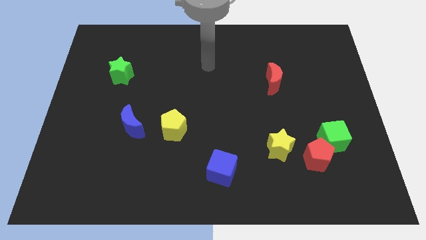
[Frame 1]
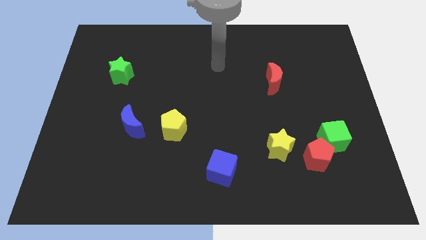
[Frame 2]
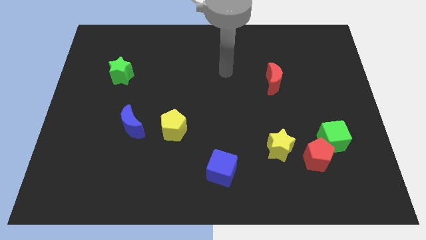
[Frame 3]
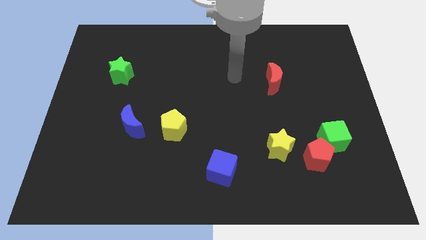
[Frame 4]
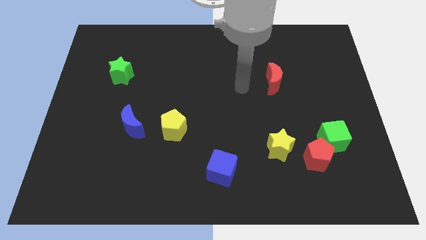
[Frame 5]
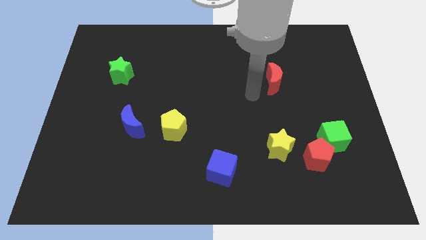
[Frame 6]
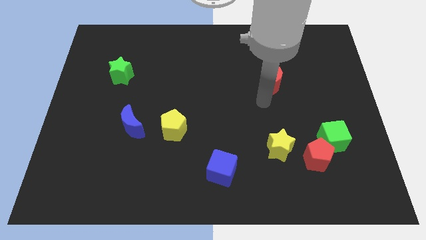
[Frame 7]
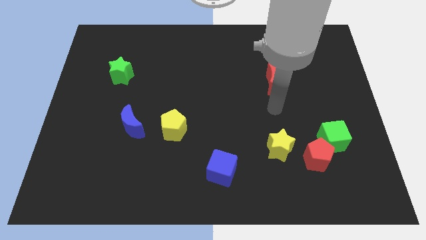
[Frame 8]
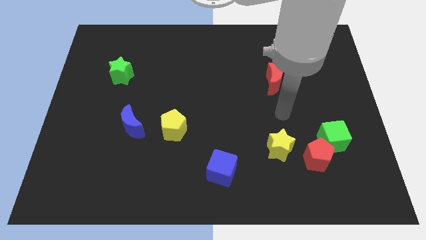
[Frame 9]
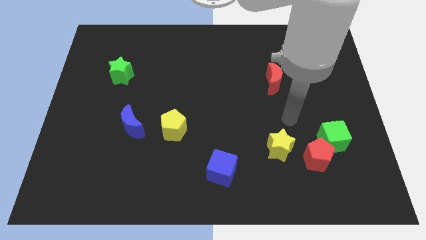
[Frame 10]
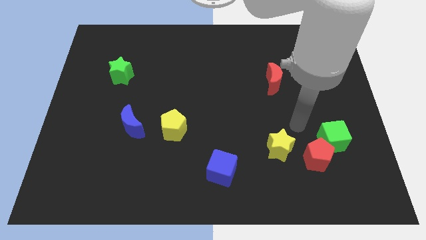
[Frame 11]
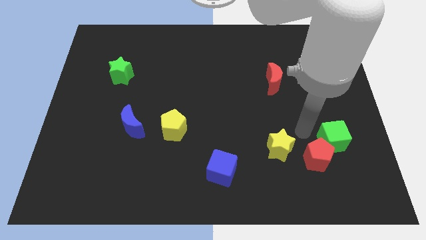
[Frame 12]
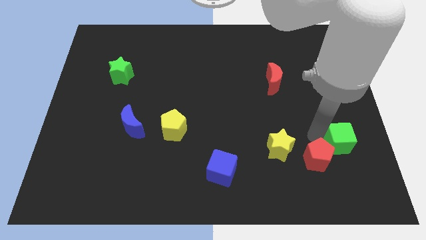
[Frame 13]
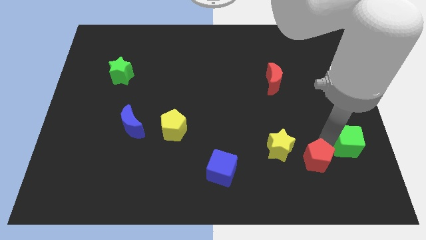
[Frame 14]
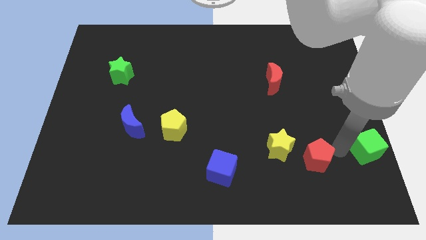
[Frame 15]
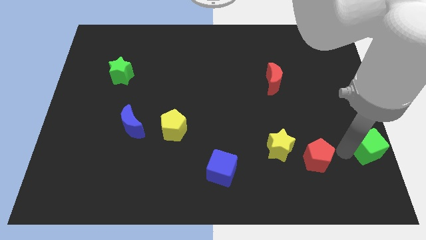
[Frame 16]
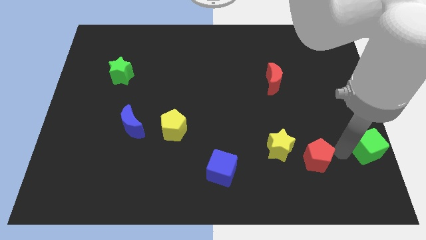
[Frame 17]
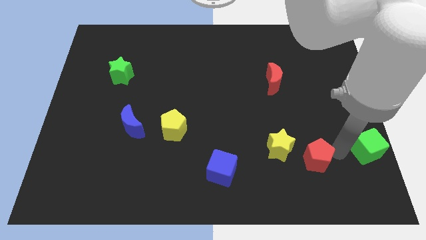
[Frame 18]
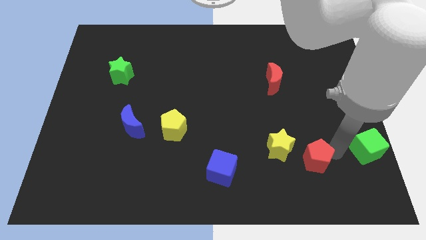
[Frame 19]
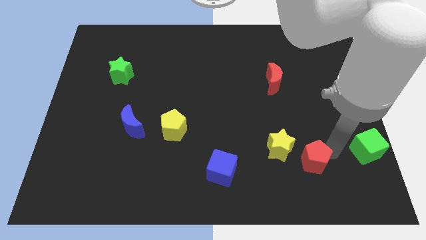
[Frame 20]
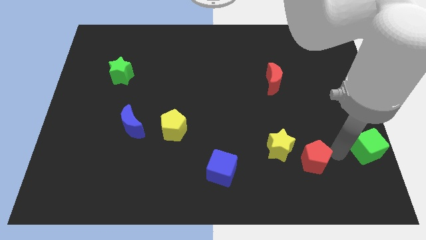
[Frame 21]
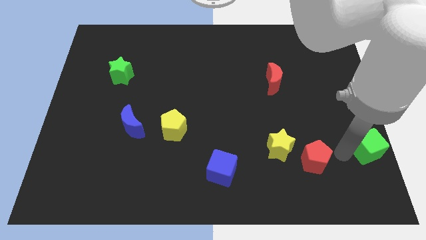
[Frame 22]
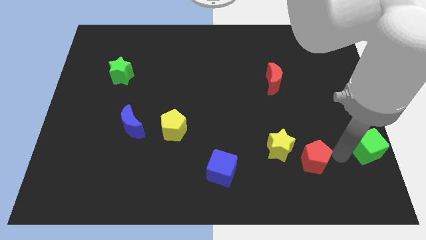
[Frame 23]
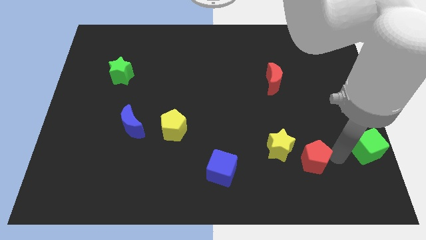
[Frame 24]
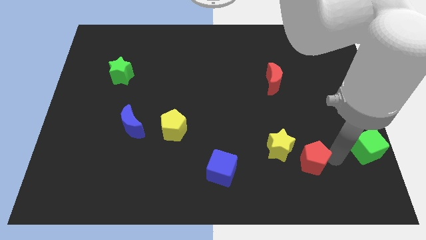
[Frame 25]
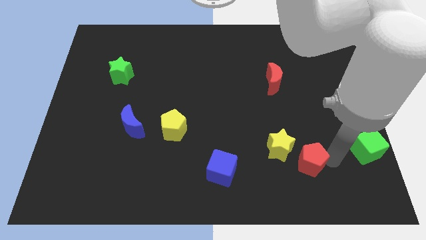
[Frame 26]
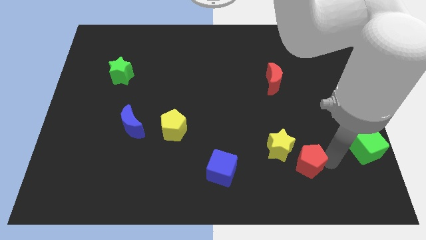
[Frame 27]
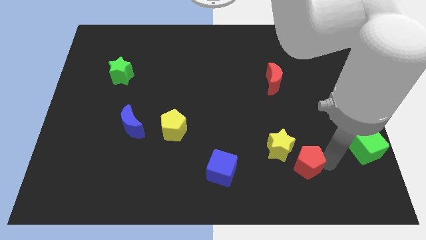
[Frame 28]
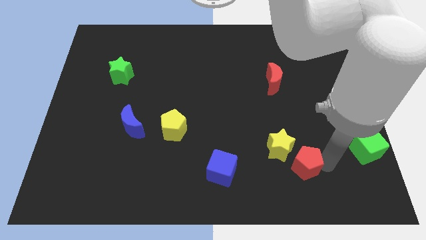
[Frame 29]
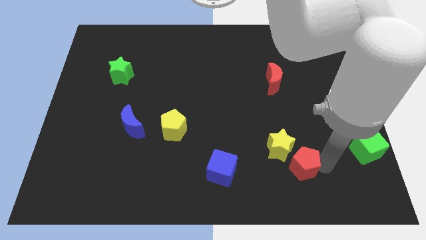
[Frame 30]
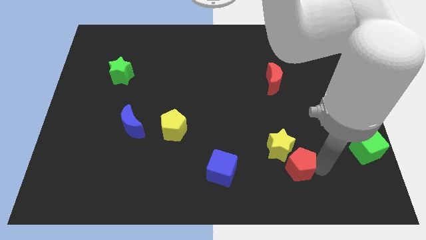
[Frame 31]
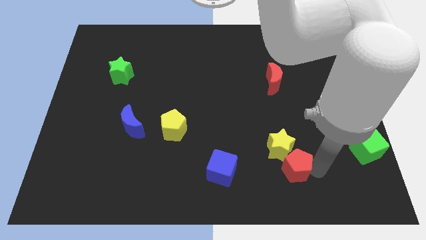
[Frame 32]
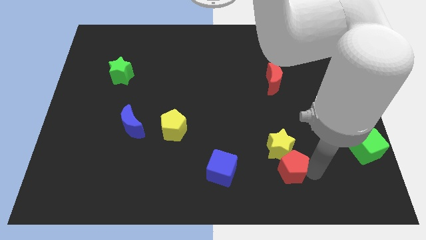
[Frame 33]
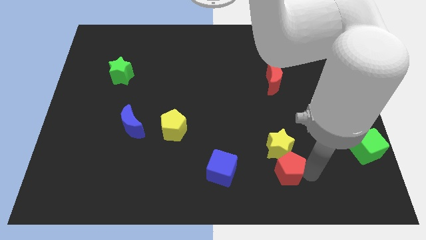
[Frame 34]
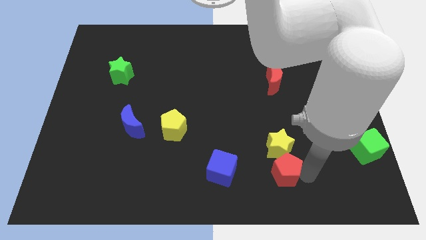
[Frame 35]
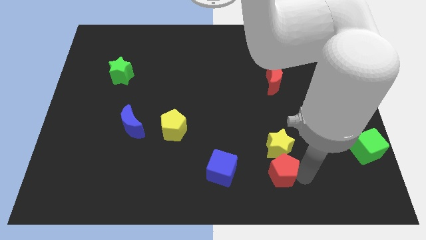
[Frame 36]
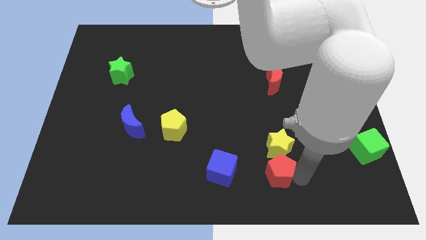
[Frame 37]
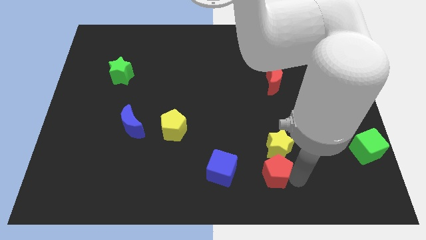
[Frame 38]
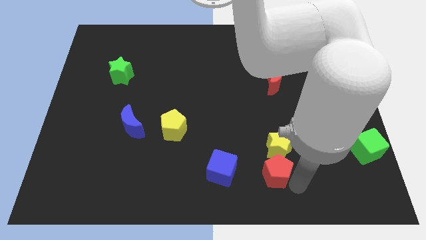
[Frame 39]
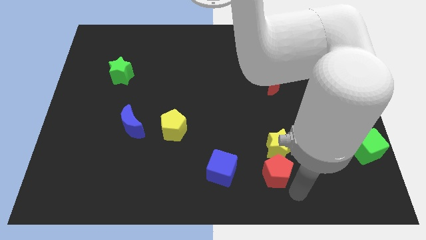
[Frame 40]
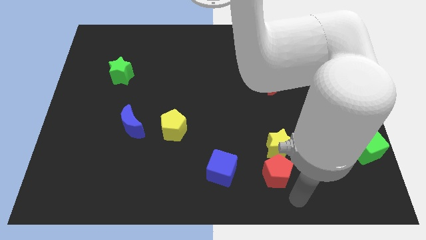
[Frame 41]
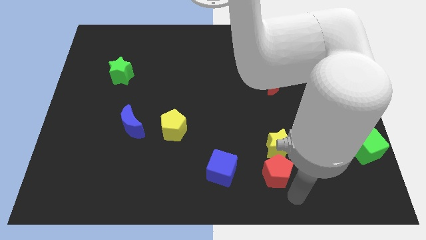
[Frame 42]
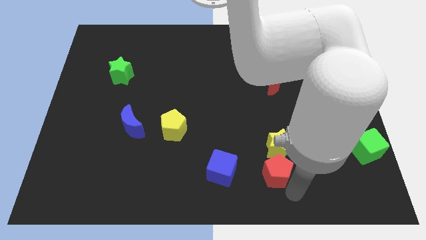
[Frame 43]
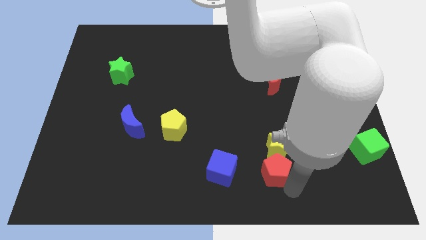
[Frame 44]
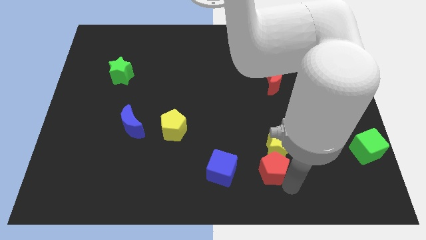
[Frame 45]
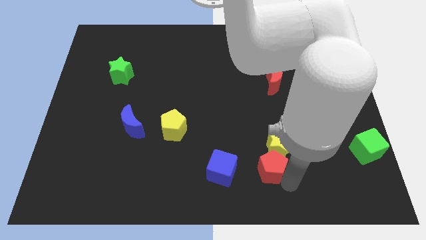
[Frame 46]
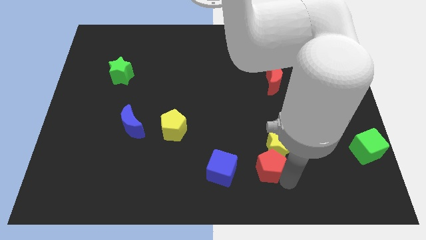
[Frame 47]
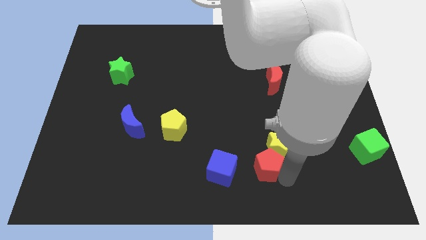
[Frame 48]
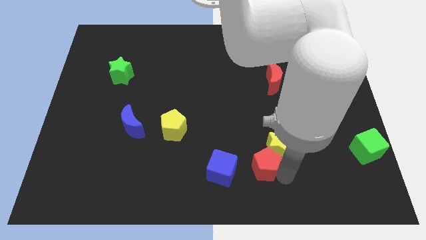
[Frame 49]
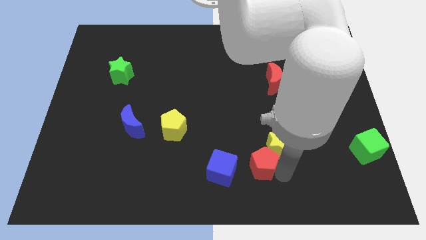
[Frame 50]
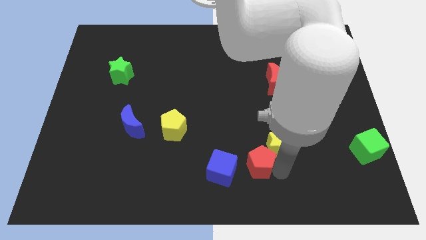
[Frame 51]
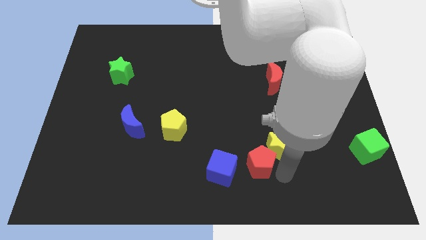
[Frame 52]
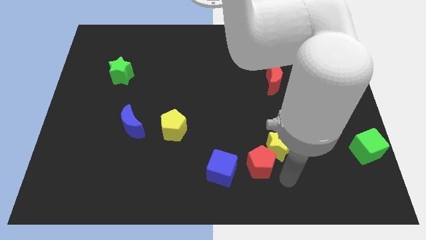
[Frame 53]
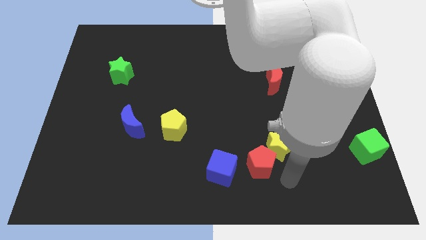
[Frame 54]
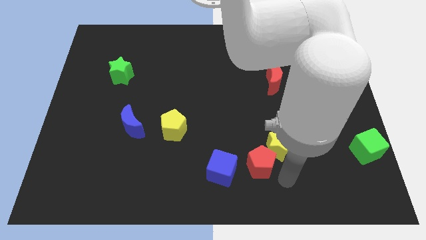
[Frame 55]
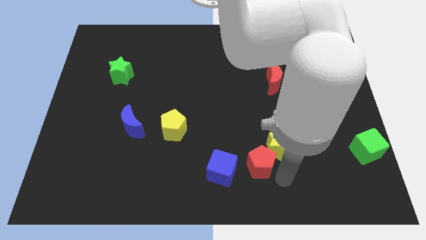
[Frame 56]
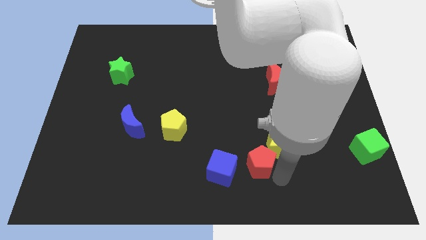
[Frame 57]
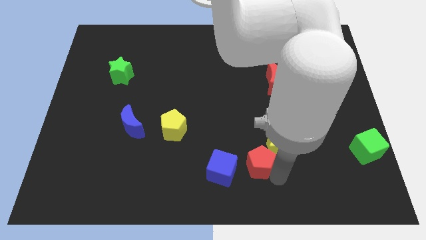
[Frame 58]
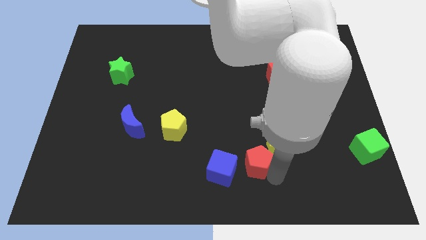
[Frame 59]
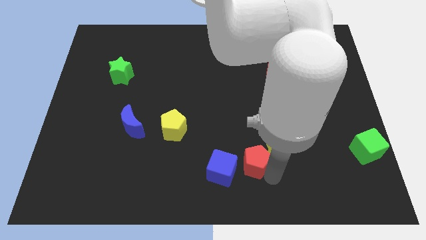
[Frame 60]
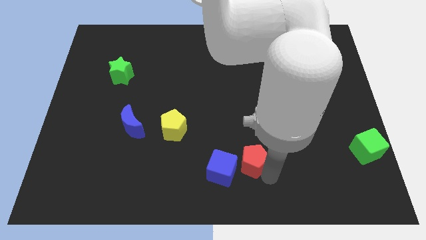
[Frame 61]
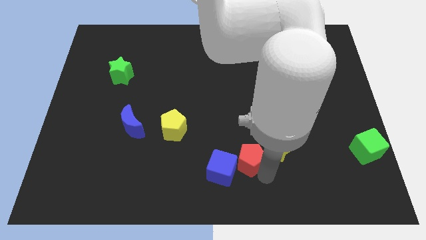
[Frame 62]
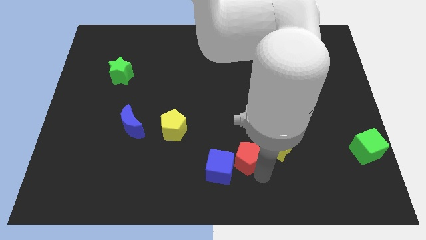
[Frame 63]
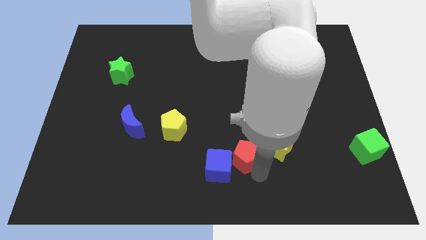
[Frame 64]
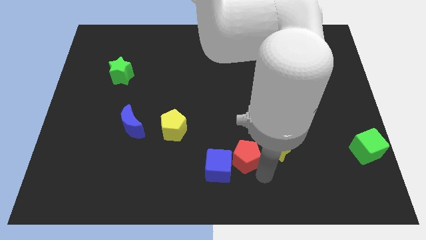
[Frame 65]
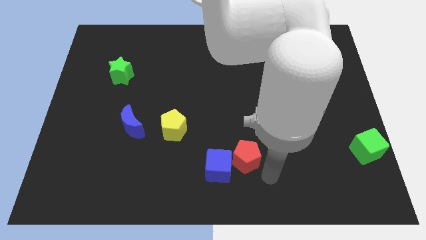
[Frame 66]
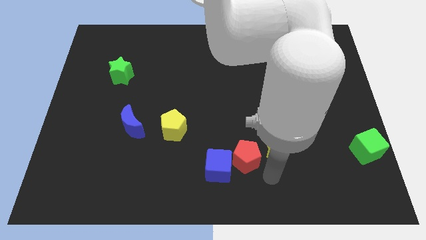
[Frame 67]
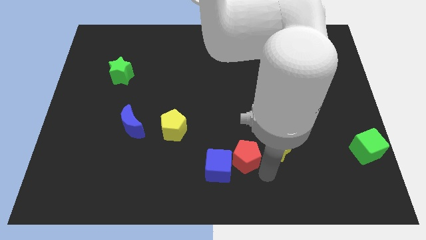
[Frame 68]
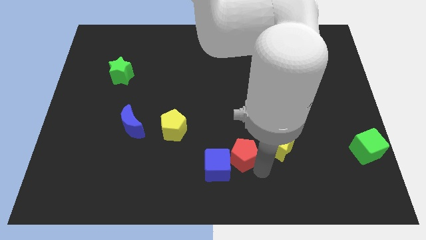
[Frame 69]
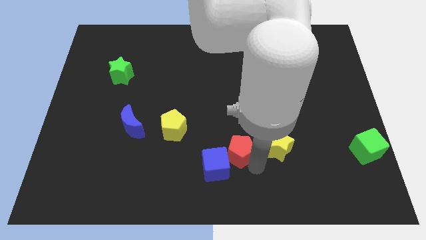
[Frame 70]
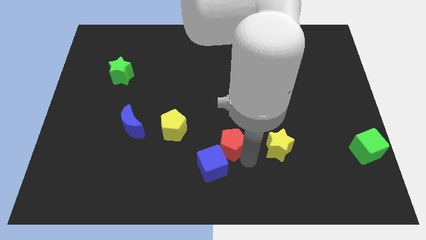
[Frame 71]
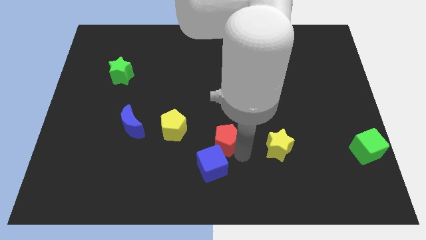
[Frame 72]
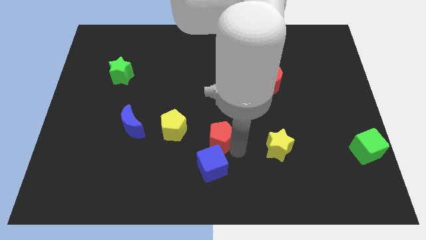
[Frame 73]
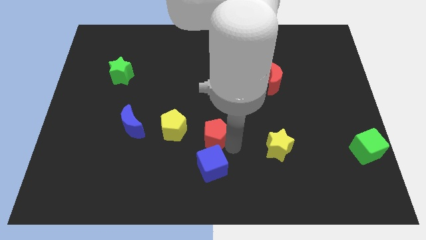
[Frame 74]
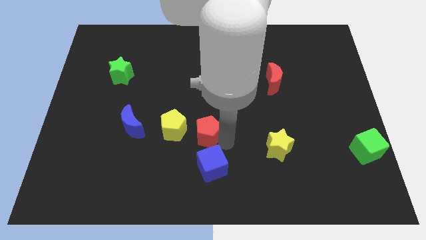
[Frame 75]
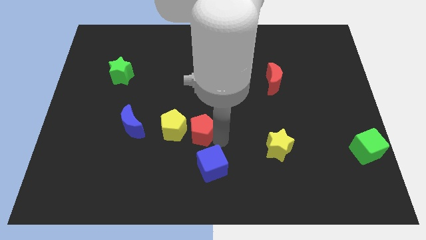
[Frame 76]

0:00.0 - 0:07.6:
put the red pentagon next to the yellow pentagon

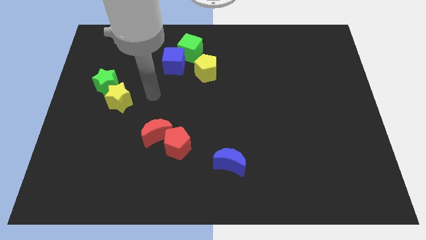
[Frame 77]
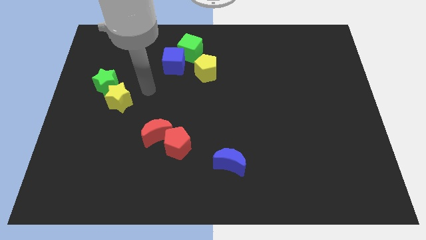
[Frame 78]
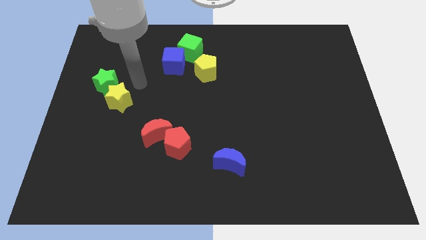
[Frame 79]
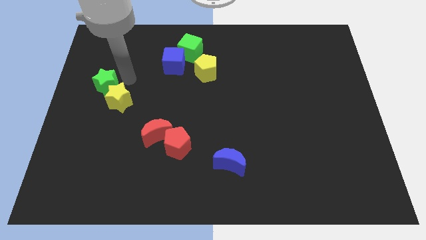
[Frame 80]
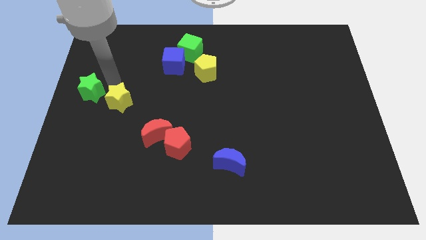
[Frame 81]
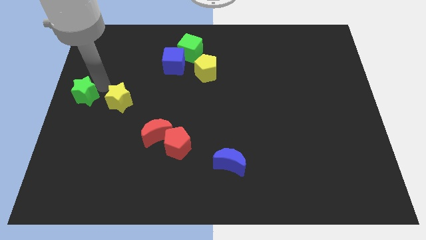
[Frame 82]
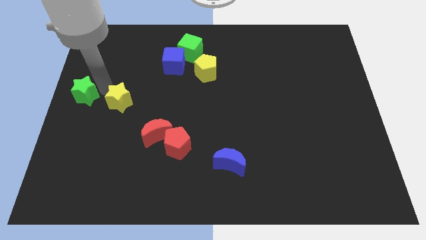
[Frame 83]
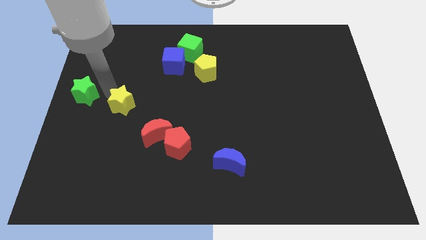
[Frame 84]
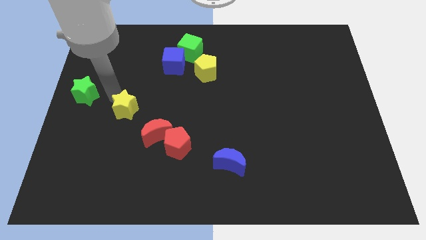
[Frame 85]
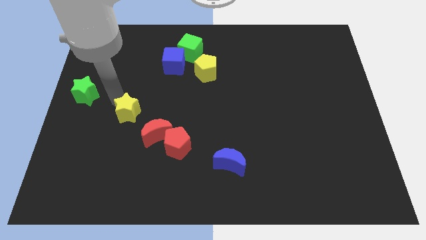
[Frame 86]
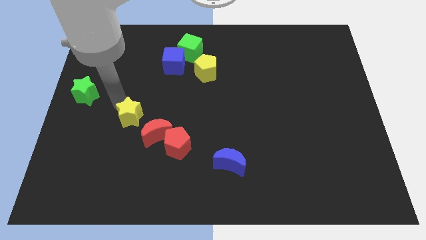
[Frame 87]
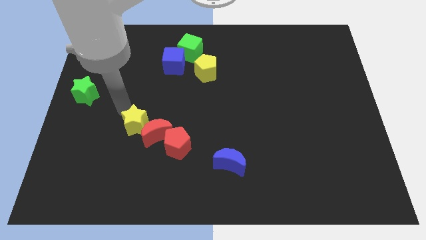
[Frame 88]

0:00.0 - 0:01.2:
move the yellow star close to the red moon
